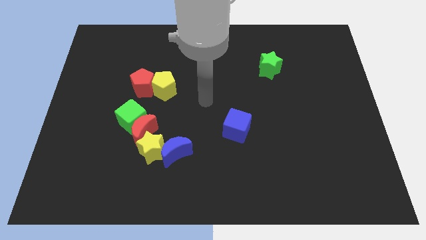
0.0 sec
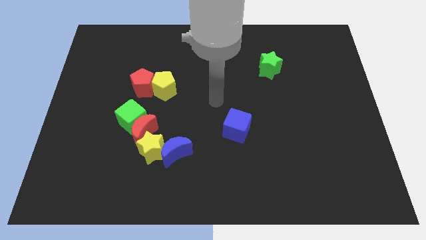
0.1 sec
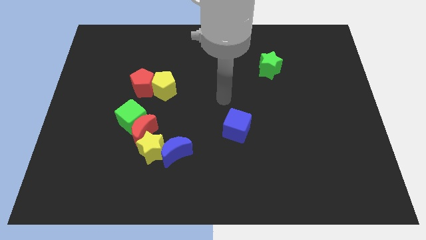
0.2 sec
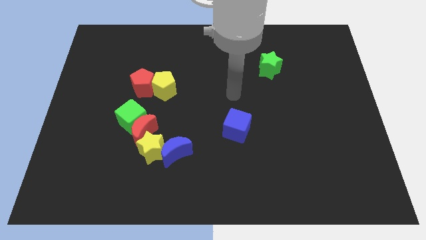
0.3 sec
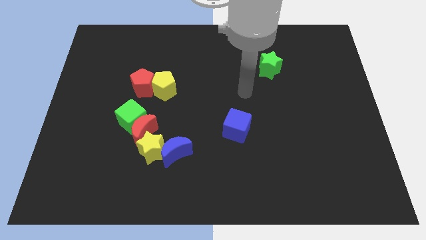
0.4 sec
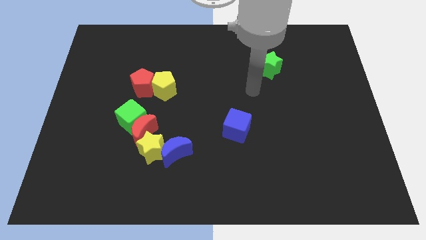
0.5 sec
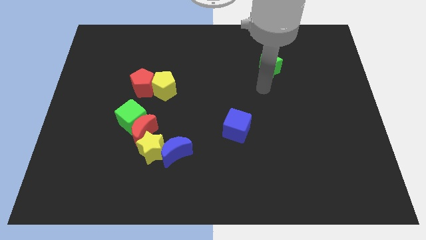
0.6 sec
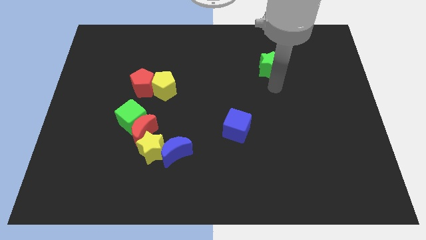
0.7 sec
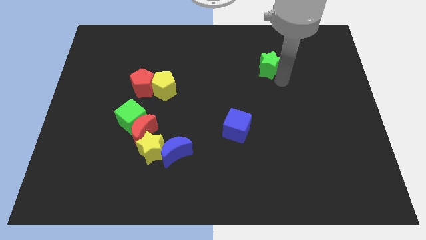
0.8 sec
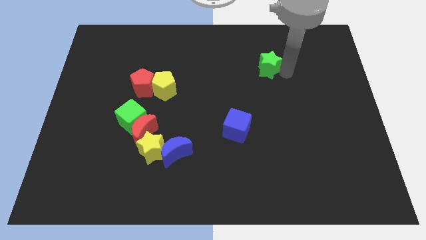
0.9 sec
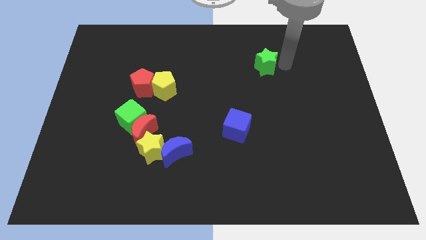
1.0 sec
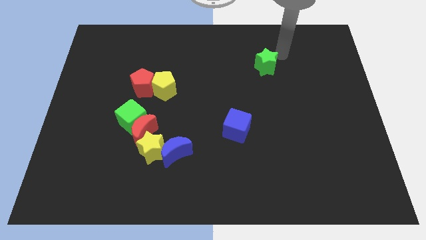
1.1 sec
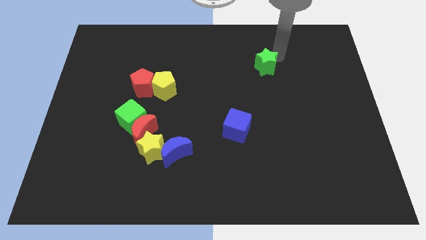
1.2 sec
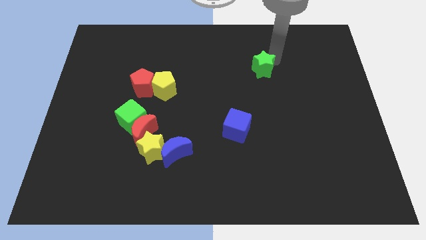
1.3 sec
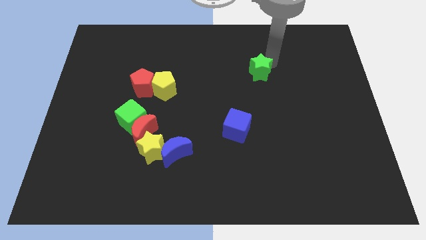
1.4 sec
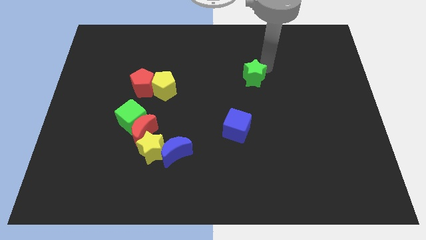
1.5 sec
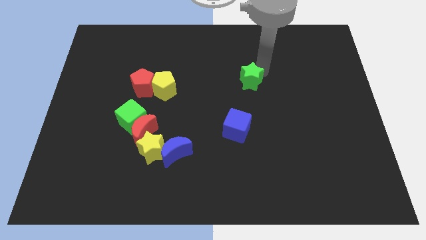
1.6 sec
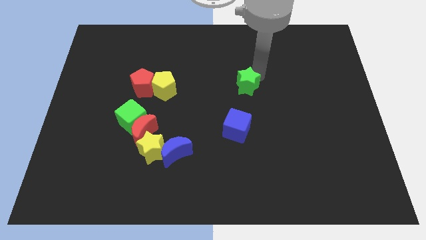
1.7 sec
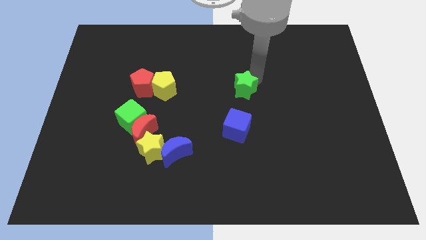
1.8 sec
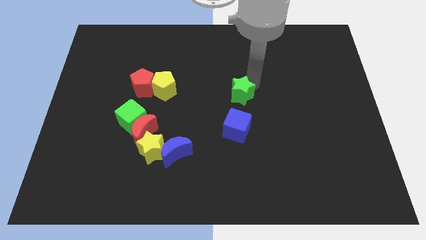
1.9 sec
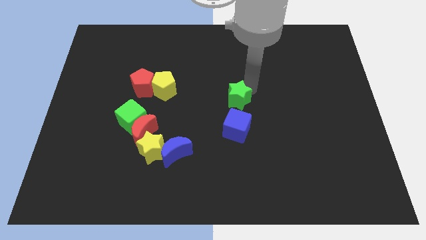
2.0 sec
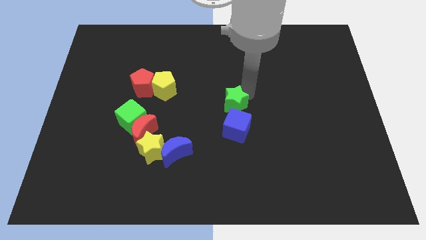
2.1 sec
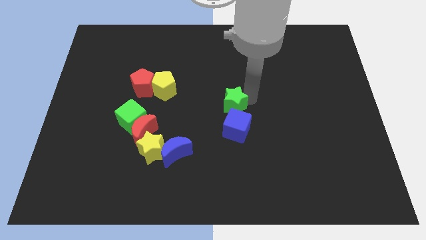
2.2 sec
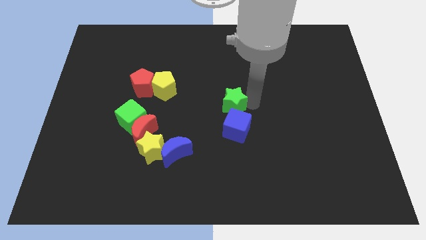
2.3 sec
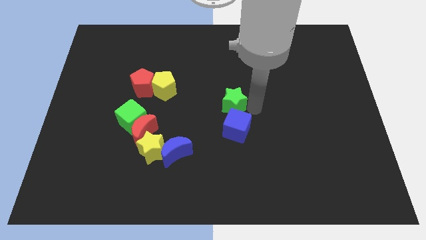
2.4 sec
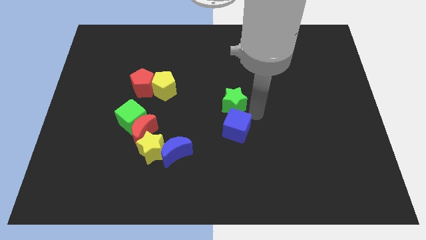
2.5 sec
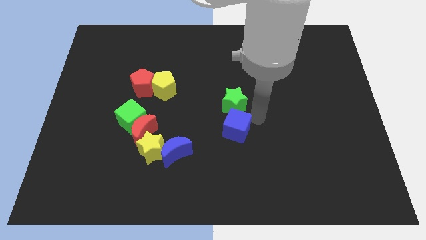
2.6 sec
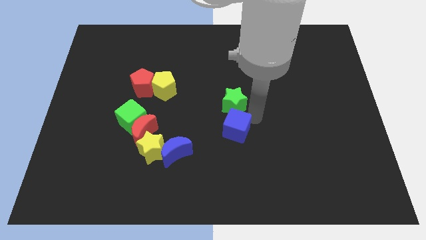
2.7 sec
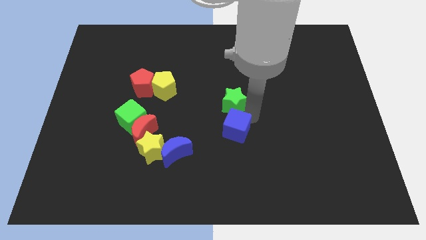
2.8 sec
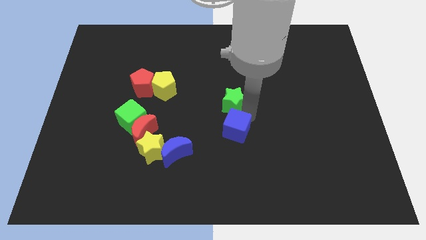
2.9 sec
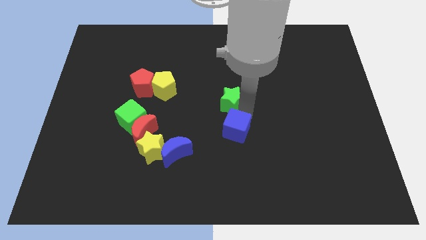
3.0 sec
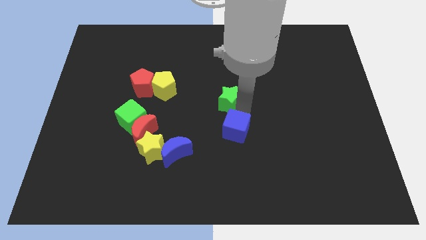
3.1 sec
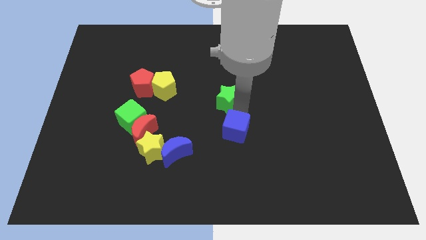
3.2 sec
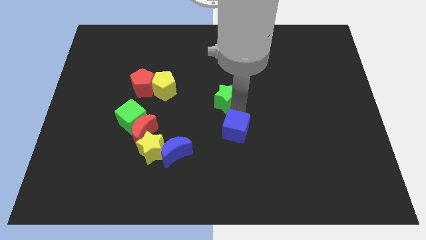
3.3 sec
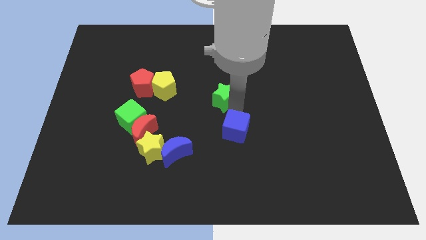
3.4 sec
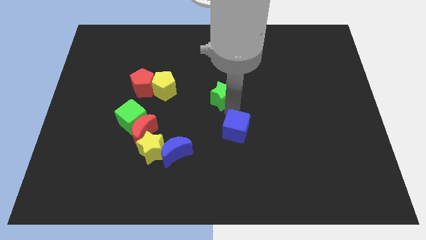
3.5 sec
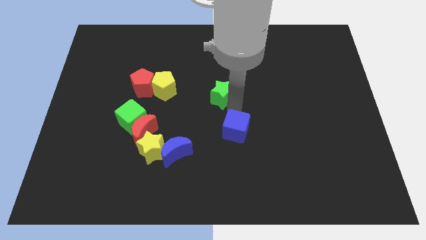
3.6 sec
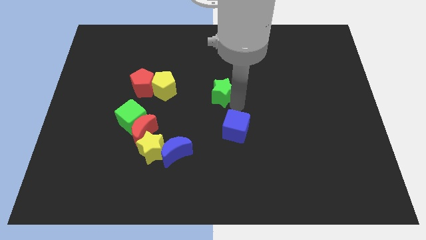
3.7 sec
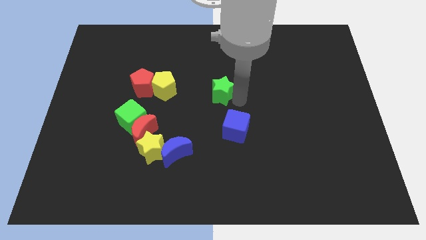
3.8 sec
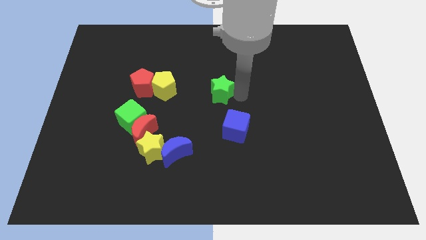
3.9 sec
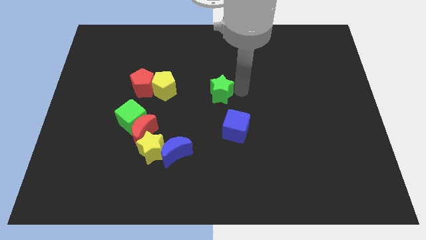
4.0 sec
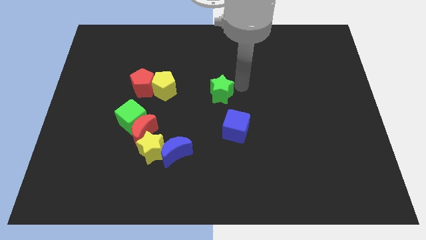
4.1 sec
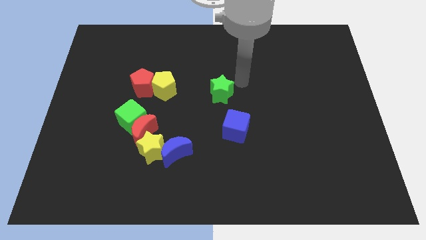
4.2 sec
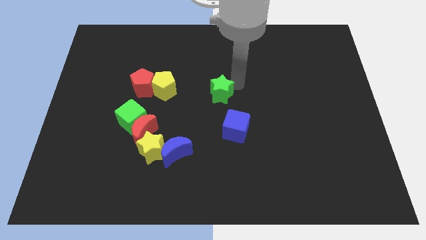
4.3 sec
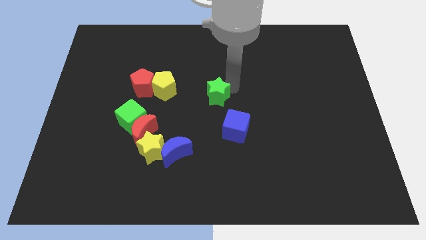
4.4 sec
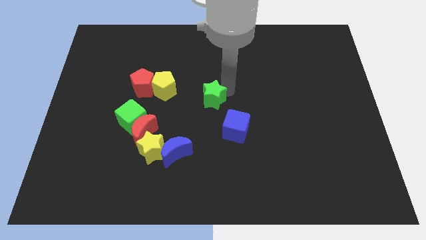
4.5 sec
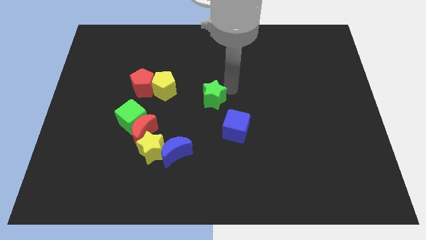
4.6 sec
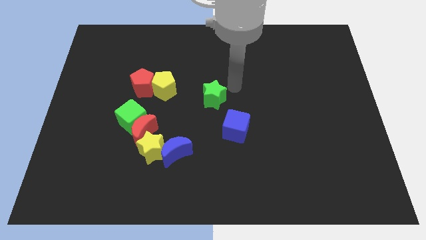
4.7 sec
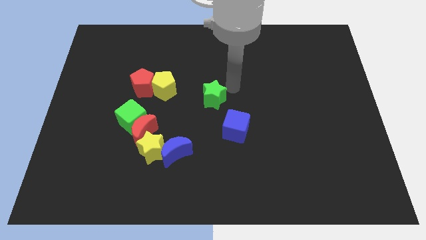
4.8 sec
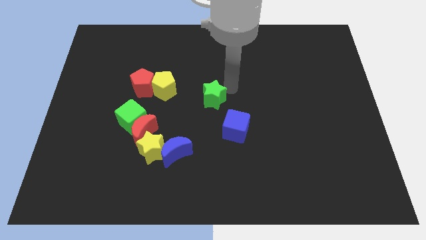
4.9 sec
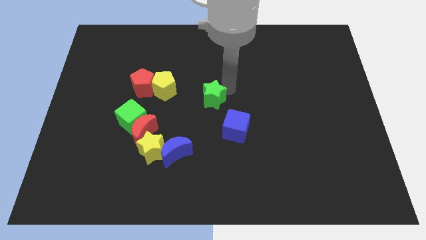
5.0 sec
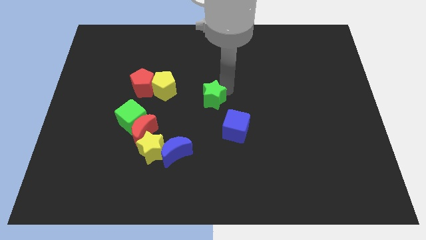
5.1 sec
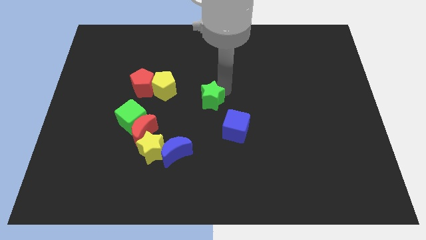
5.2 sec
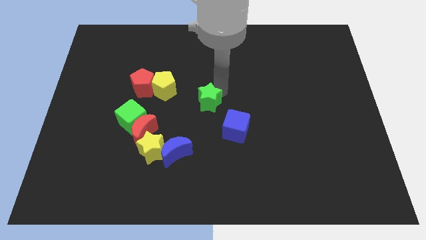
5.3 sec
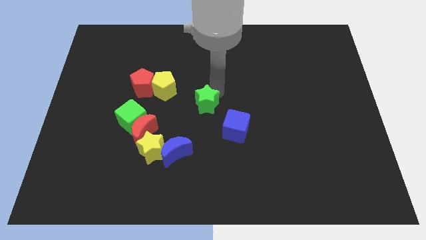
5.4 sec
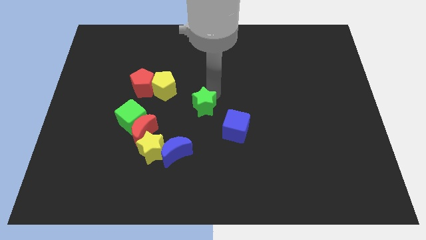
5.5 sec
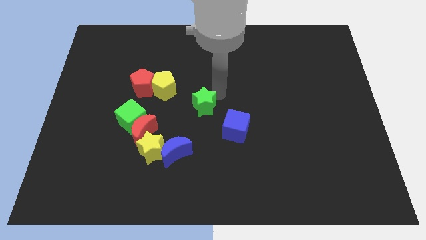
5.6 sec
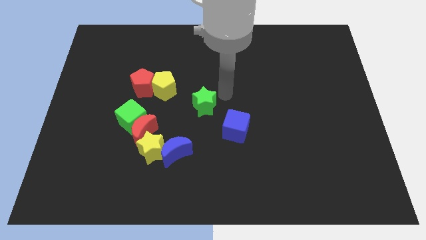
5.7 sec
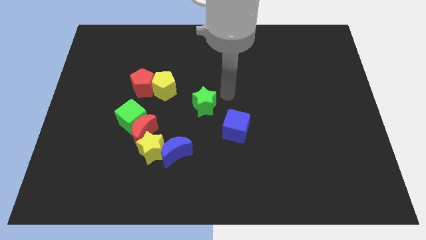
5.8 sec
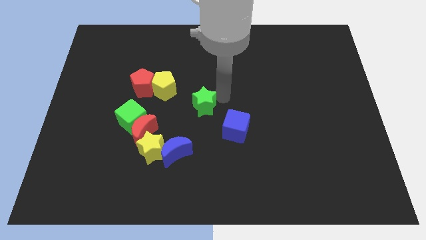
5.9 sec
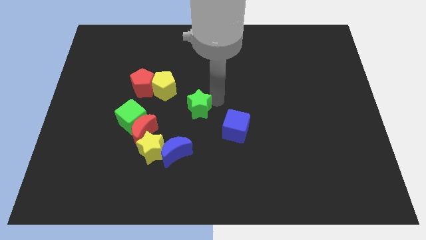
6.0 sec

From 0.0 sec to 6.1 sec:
push the green star right of the green cube

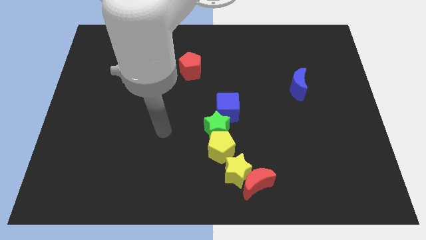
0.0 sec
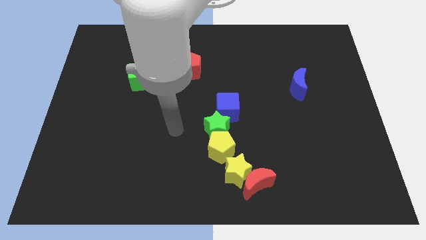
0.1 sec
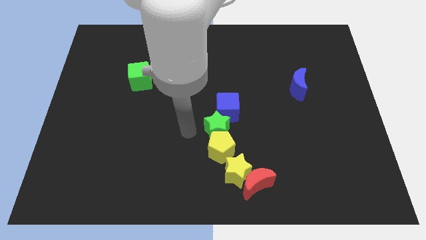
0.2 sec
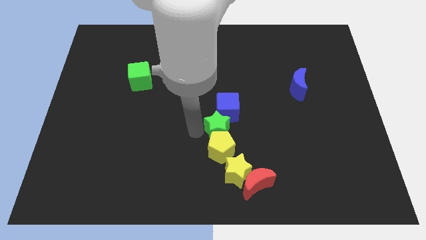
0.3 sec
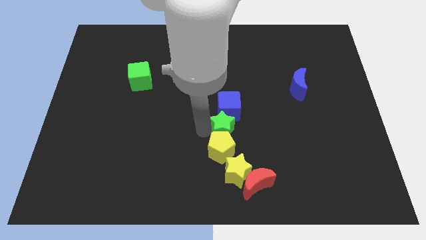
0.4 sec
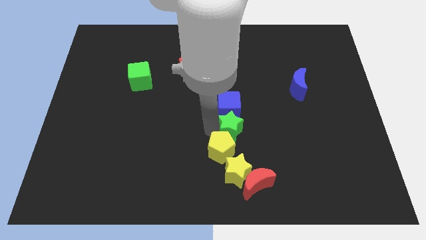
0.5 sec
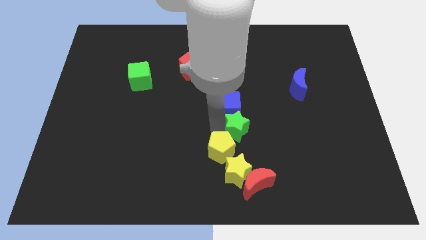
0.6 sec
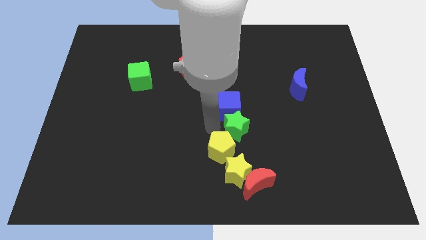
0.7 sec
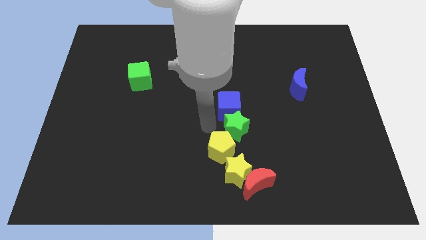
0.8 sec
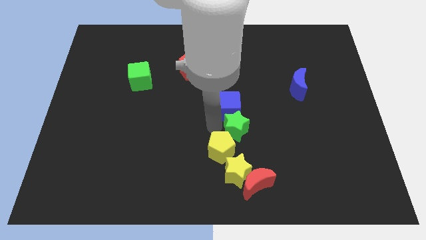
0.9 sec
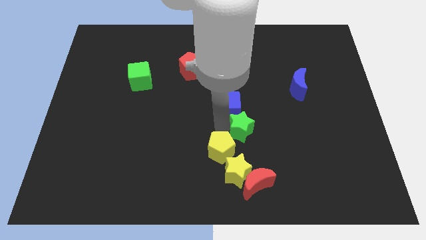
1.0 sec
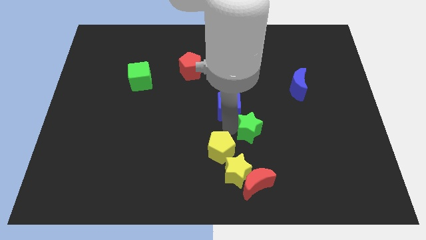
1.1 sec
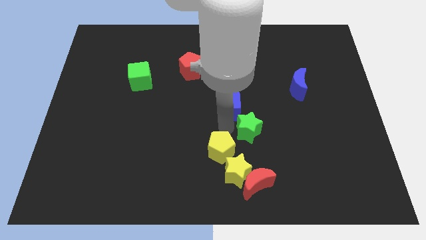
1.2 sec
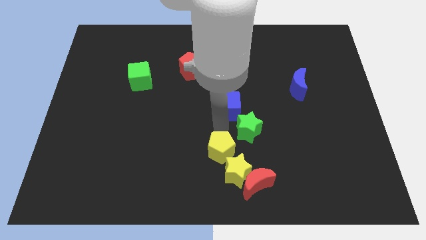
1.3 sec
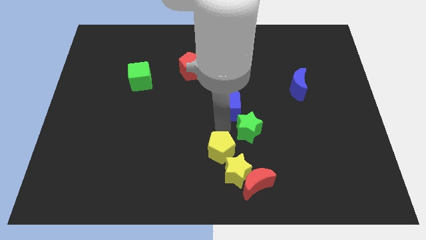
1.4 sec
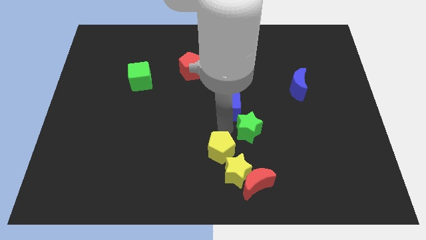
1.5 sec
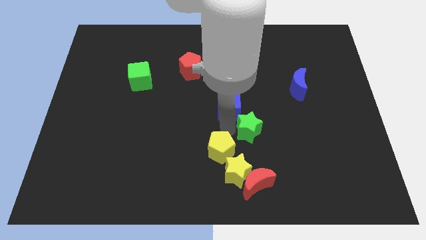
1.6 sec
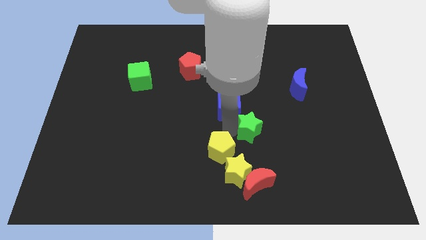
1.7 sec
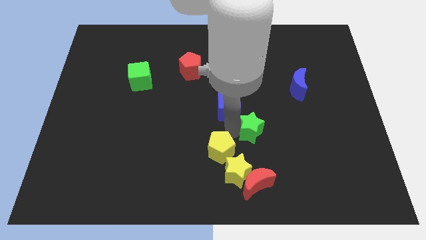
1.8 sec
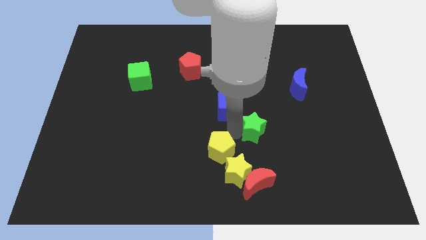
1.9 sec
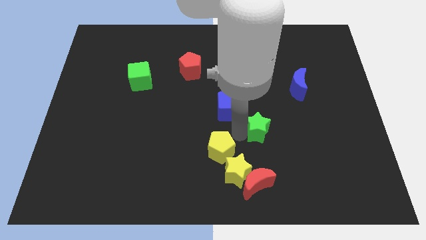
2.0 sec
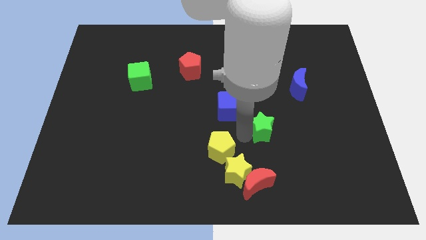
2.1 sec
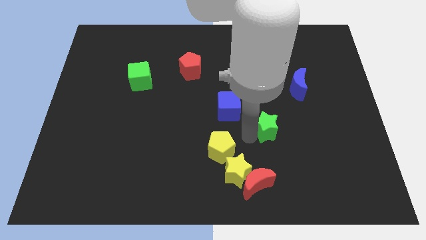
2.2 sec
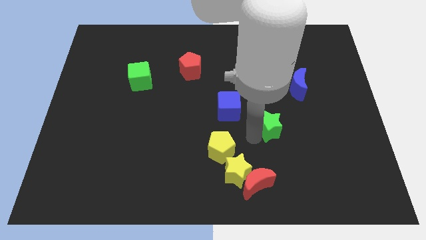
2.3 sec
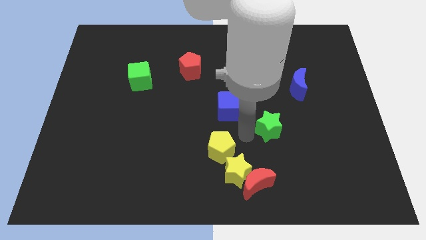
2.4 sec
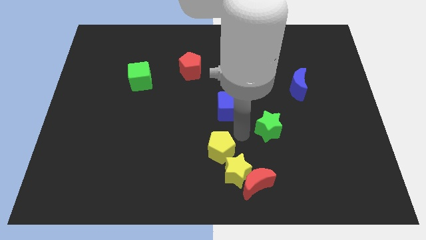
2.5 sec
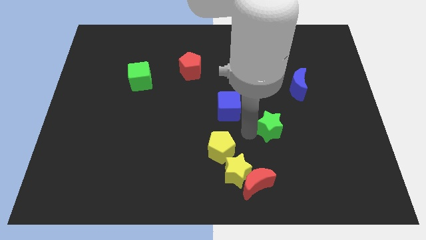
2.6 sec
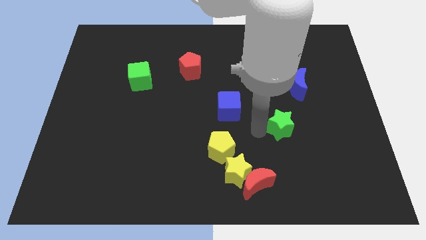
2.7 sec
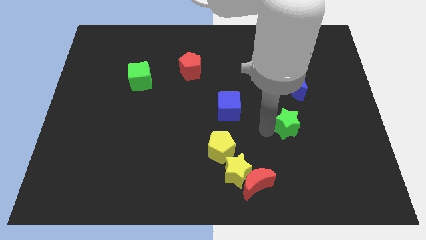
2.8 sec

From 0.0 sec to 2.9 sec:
push the green star to the bottom side of the blue moon
